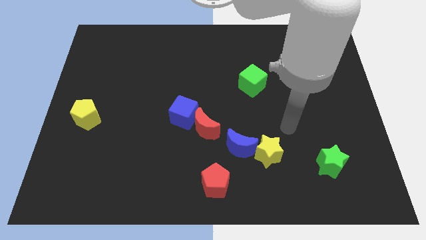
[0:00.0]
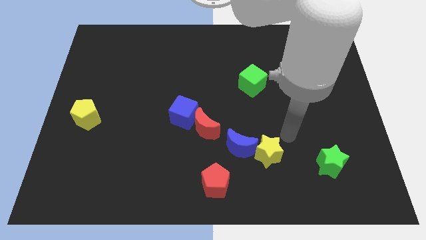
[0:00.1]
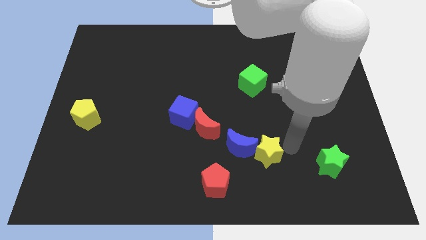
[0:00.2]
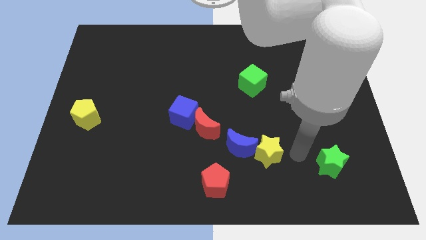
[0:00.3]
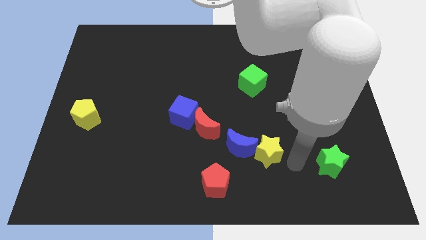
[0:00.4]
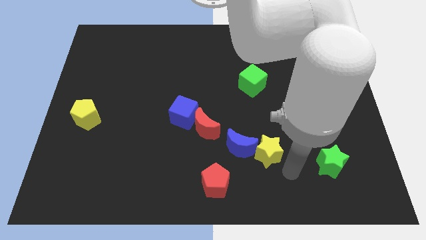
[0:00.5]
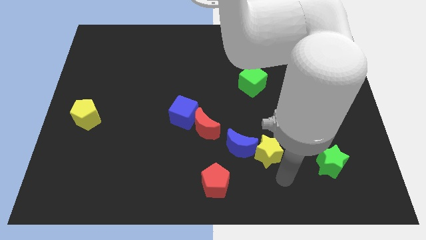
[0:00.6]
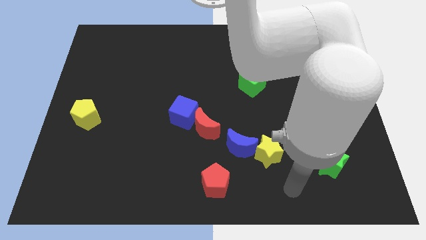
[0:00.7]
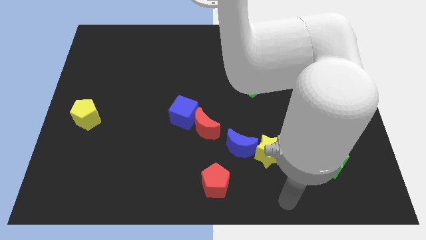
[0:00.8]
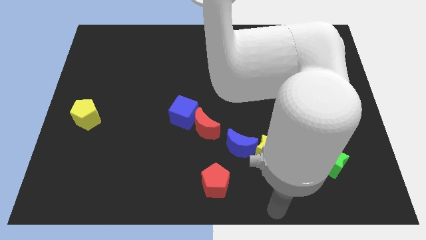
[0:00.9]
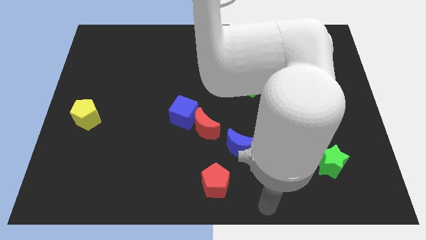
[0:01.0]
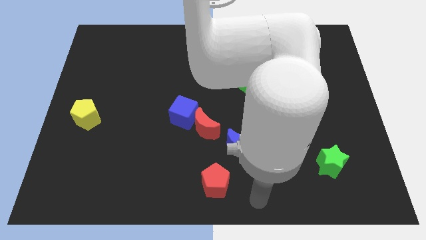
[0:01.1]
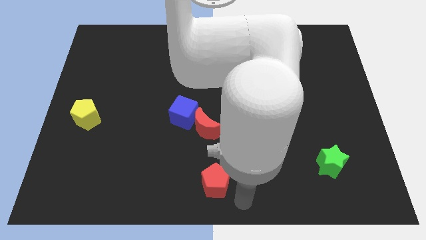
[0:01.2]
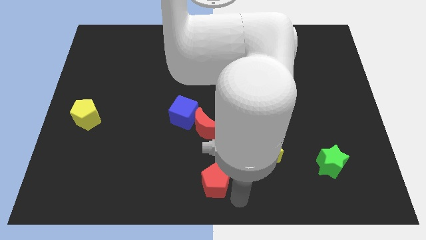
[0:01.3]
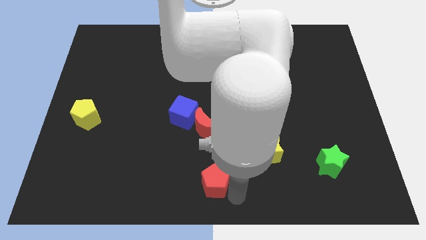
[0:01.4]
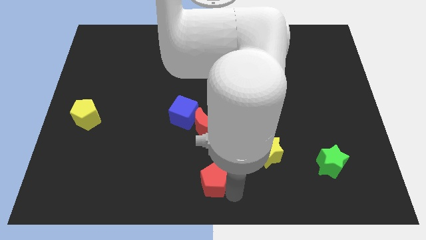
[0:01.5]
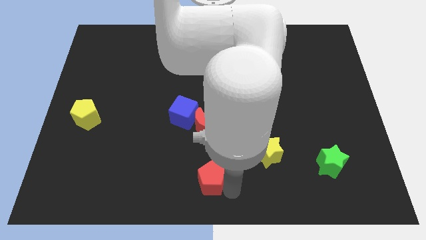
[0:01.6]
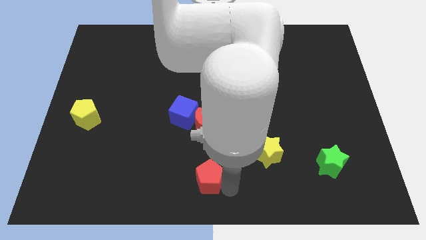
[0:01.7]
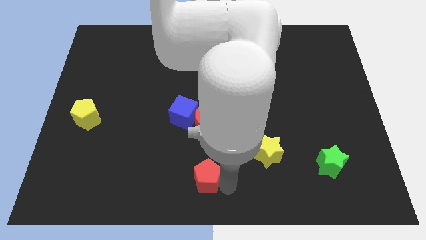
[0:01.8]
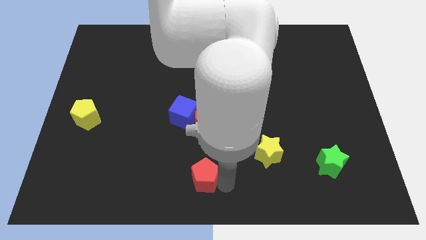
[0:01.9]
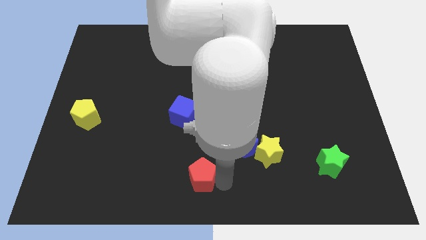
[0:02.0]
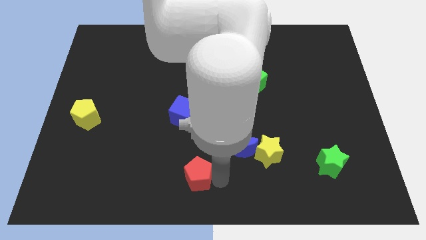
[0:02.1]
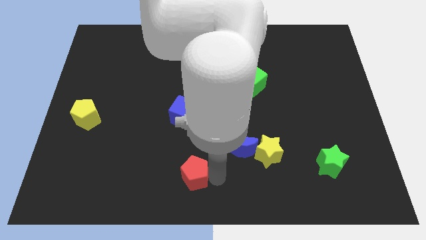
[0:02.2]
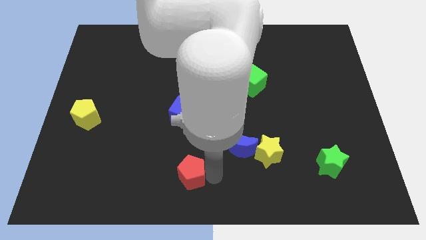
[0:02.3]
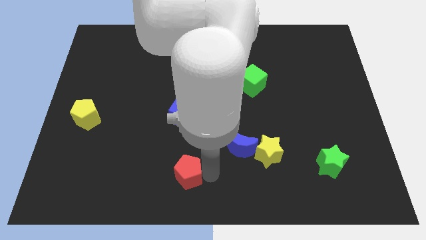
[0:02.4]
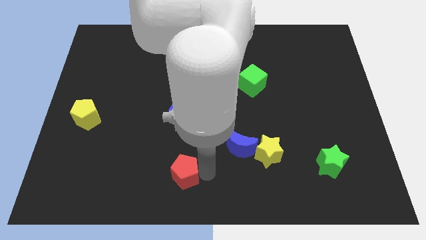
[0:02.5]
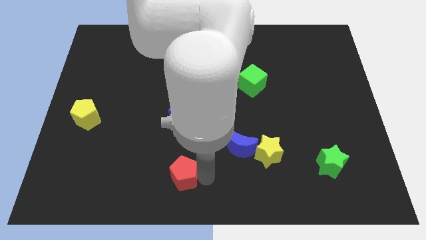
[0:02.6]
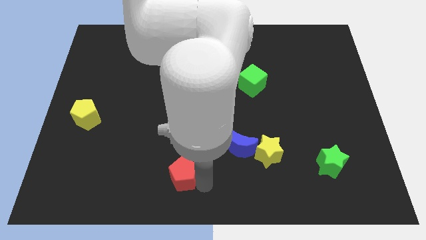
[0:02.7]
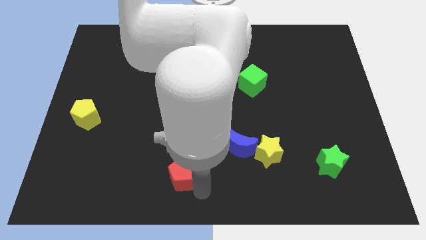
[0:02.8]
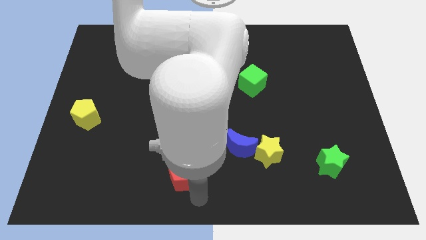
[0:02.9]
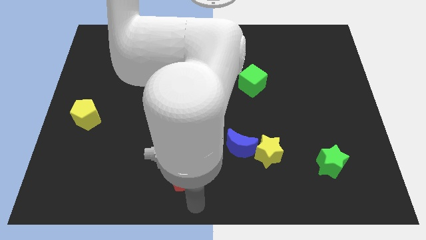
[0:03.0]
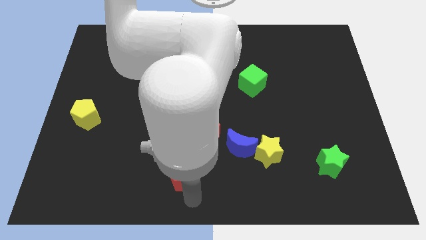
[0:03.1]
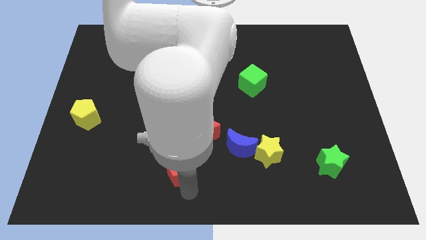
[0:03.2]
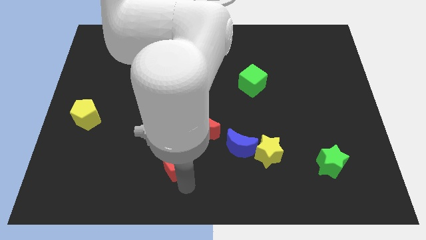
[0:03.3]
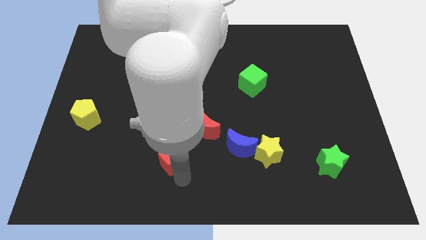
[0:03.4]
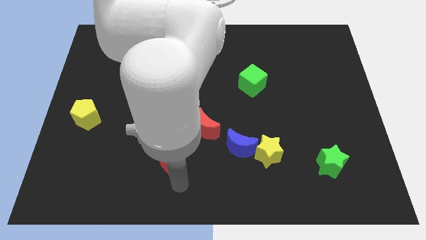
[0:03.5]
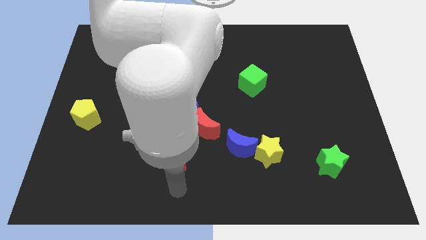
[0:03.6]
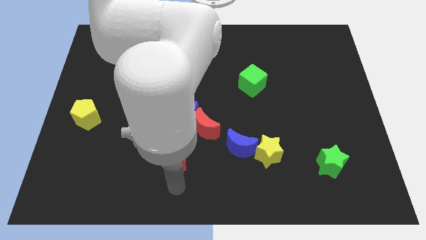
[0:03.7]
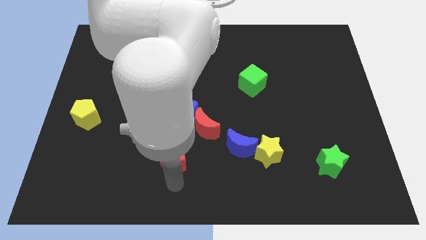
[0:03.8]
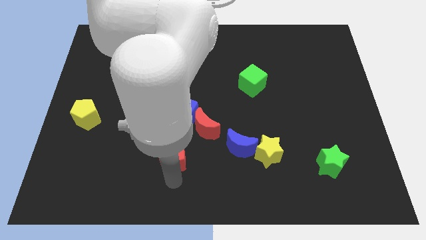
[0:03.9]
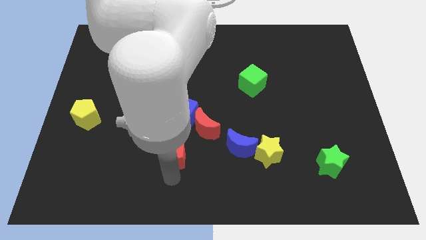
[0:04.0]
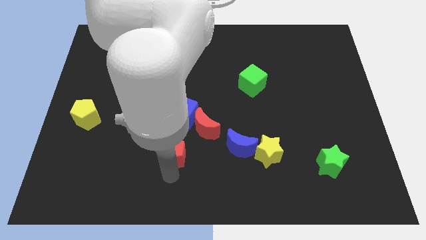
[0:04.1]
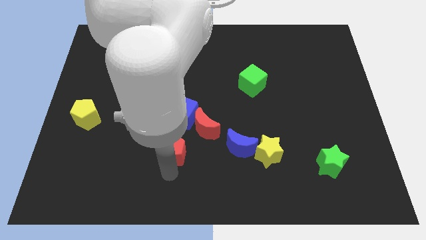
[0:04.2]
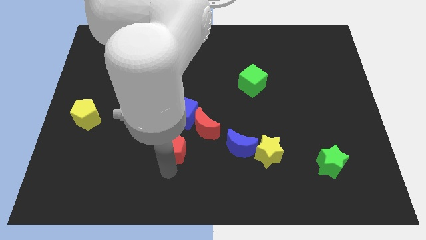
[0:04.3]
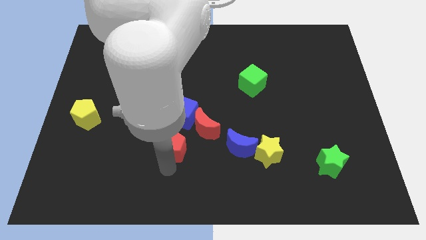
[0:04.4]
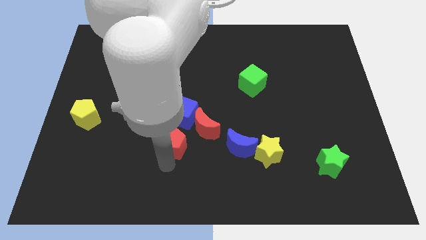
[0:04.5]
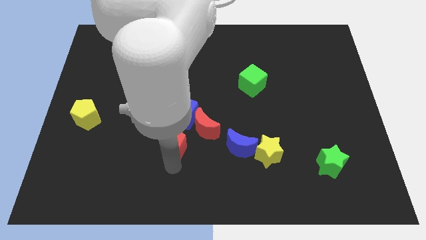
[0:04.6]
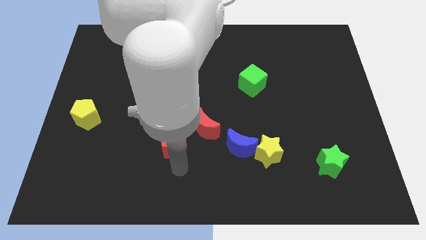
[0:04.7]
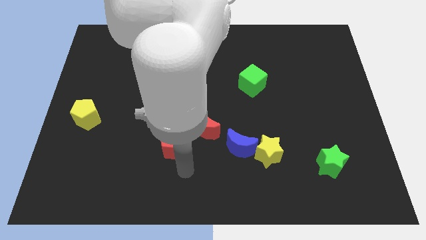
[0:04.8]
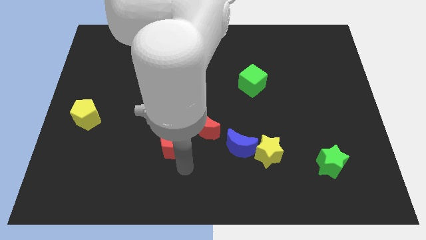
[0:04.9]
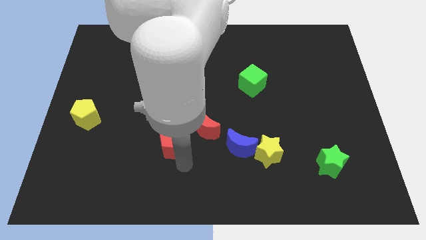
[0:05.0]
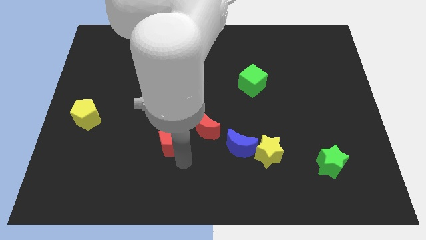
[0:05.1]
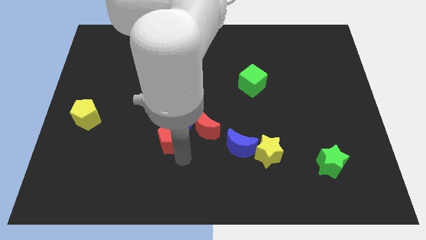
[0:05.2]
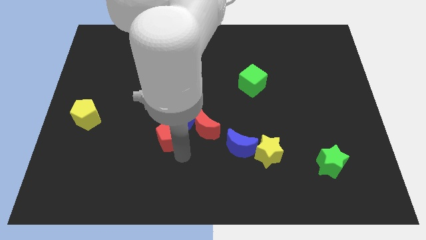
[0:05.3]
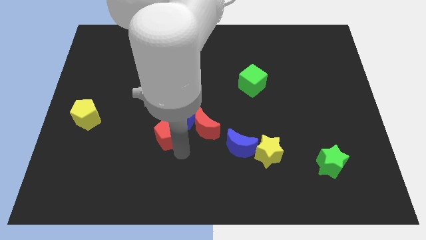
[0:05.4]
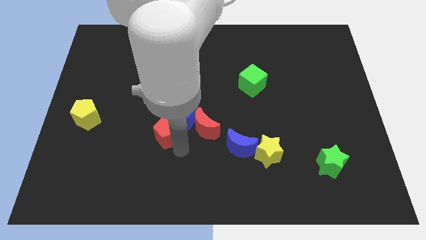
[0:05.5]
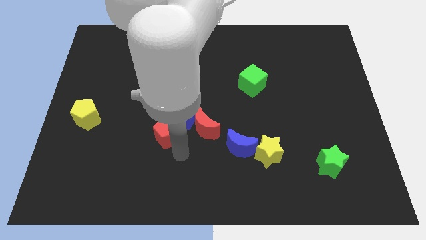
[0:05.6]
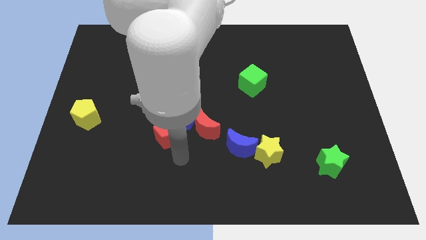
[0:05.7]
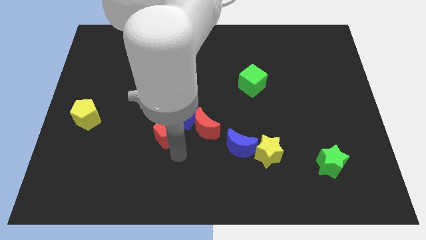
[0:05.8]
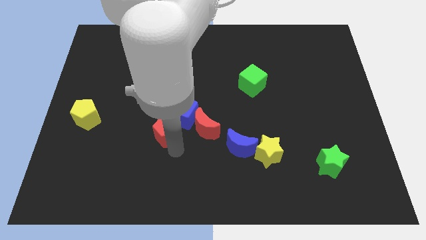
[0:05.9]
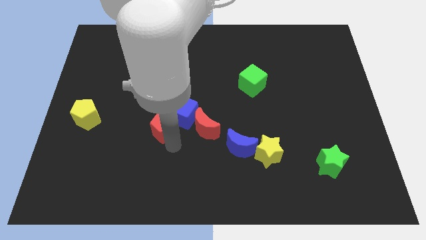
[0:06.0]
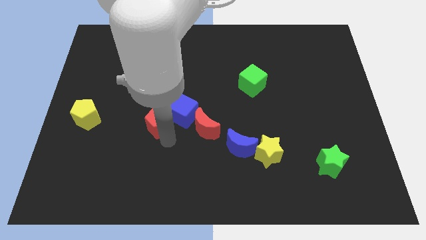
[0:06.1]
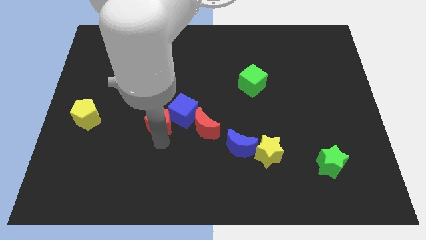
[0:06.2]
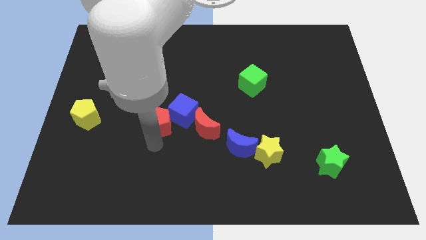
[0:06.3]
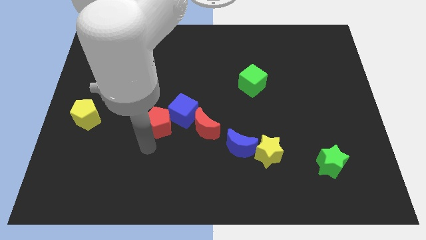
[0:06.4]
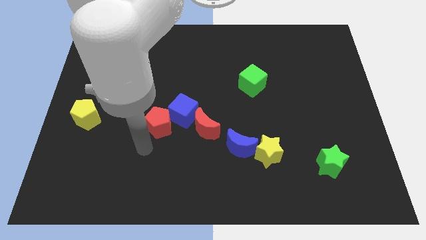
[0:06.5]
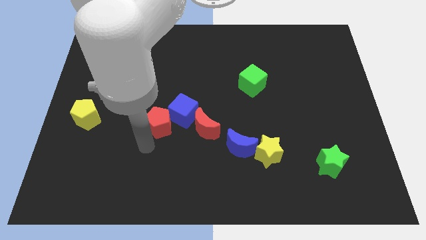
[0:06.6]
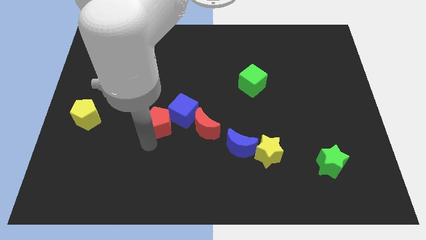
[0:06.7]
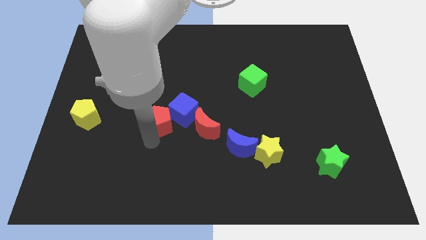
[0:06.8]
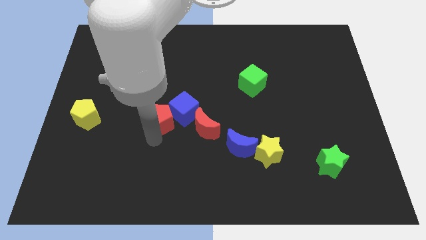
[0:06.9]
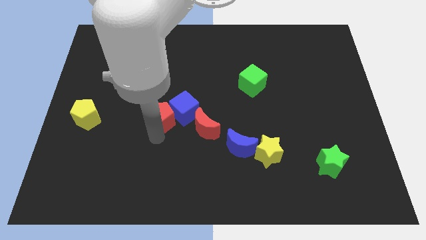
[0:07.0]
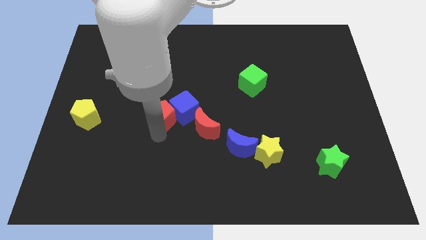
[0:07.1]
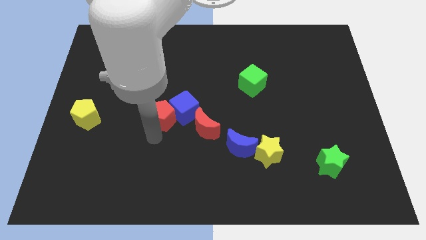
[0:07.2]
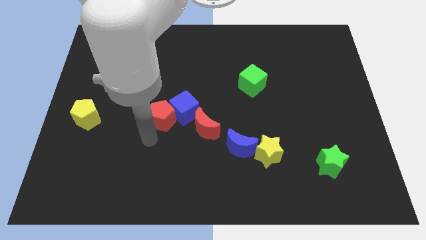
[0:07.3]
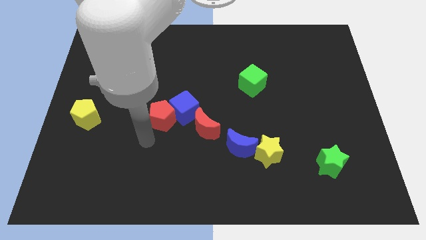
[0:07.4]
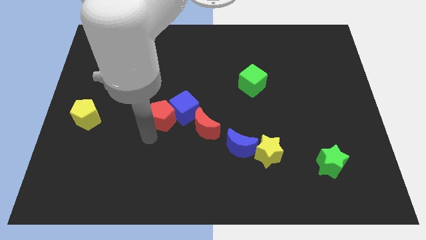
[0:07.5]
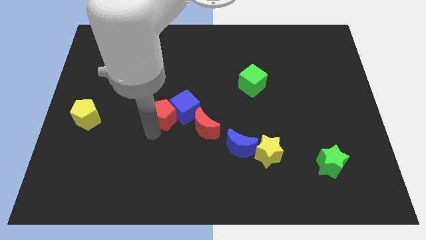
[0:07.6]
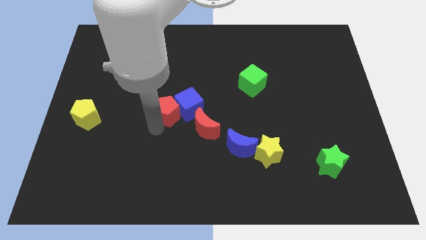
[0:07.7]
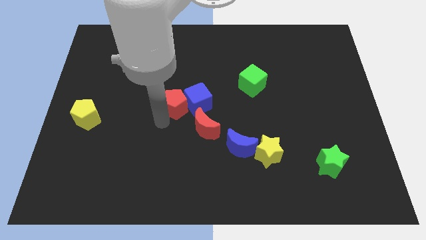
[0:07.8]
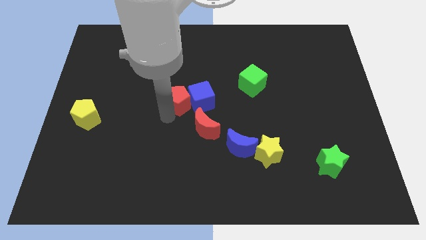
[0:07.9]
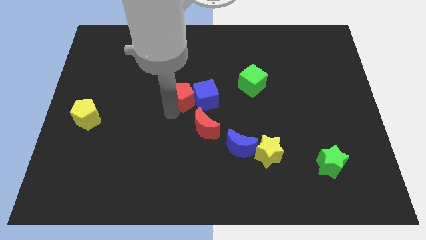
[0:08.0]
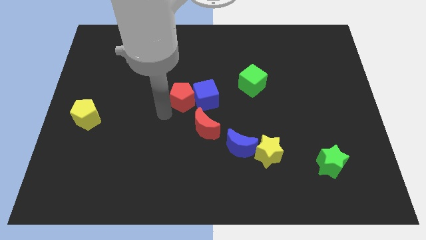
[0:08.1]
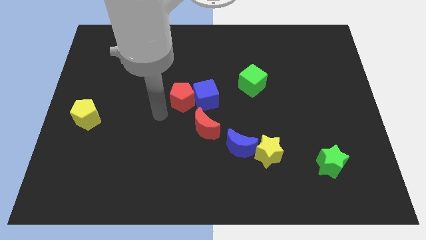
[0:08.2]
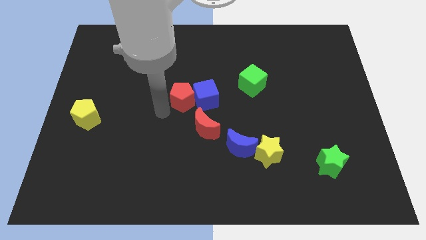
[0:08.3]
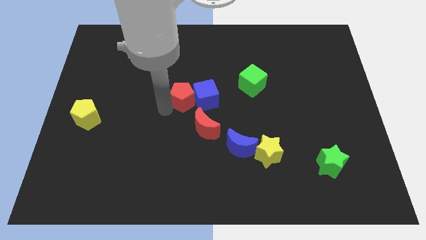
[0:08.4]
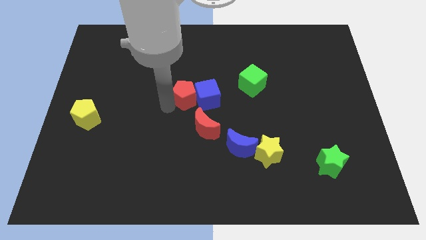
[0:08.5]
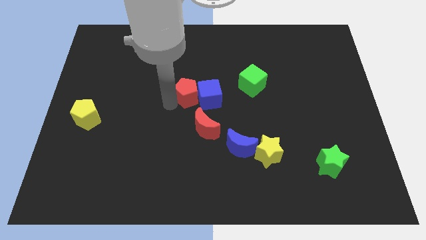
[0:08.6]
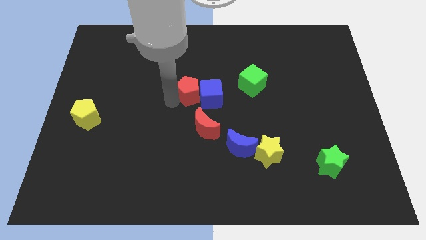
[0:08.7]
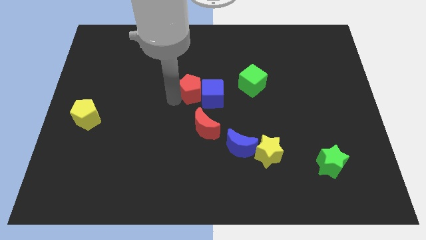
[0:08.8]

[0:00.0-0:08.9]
put the red pentagon just left of the green cube
